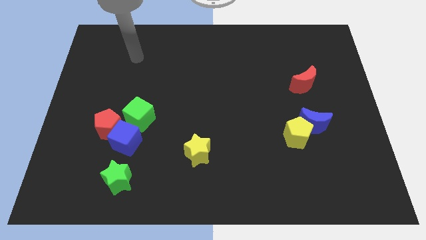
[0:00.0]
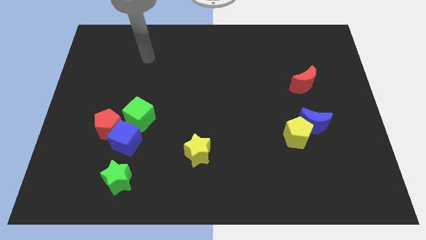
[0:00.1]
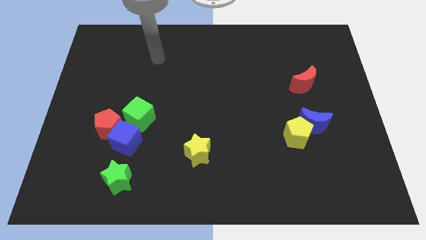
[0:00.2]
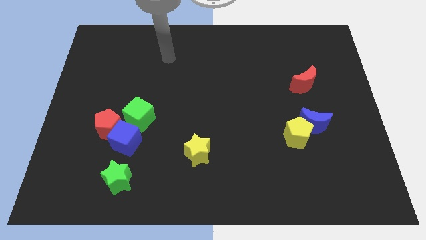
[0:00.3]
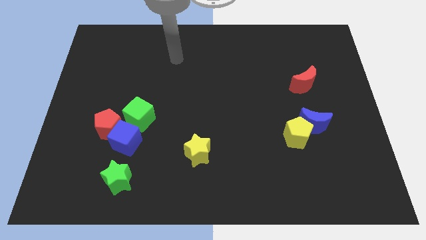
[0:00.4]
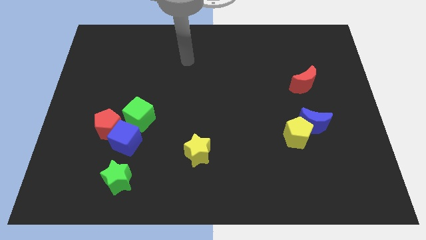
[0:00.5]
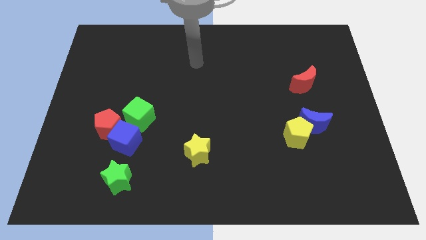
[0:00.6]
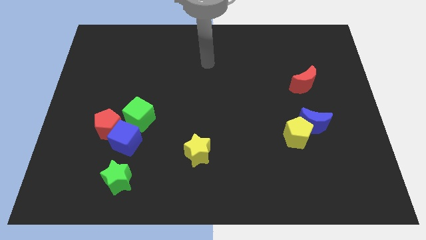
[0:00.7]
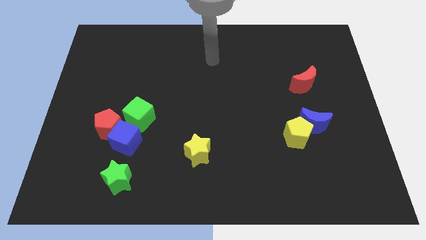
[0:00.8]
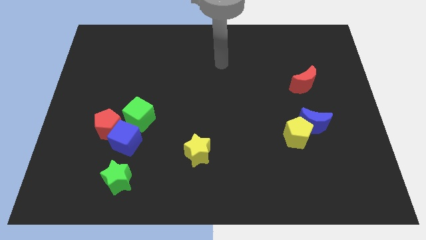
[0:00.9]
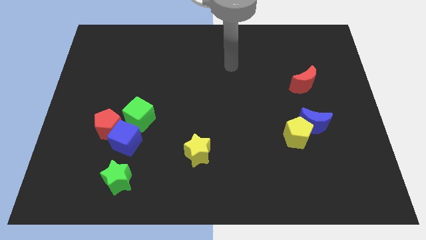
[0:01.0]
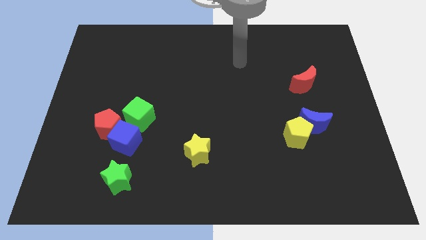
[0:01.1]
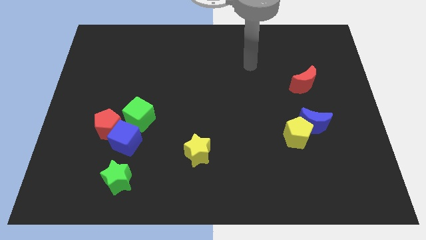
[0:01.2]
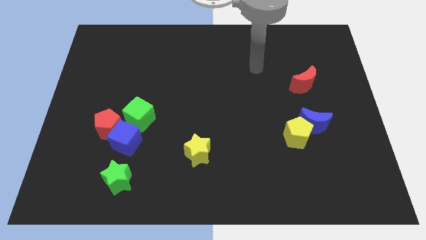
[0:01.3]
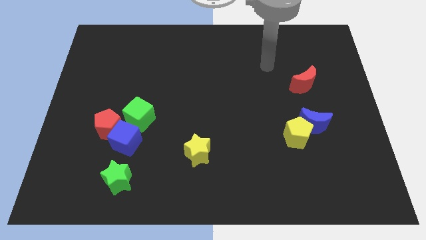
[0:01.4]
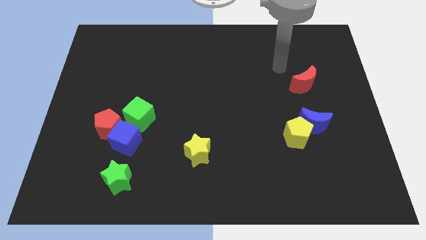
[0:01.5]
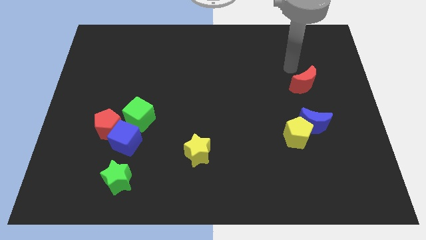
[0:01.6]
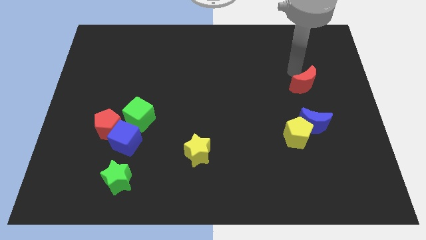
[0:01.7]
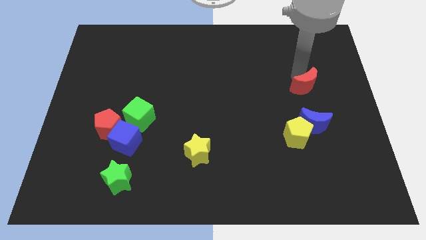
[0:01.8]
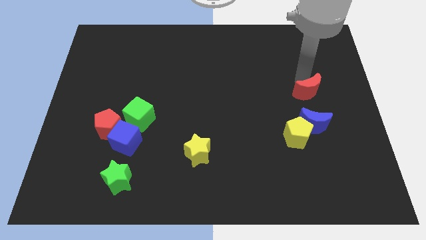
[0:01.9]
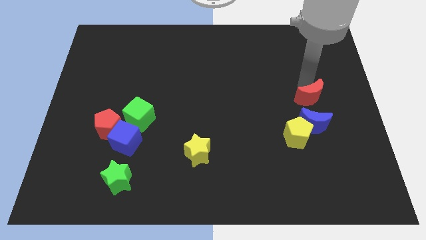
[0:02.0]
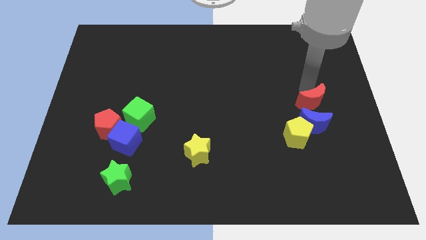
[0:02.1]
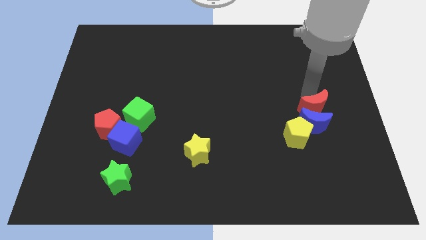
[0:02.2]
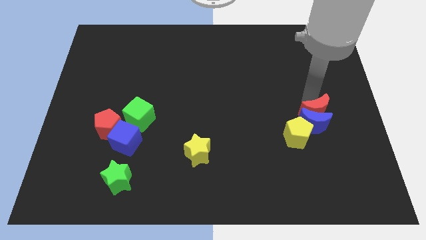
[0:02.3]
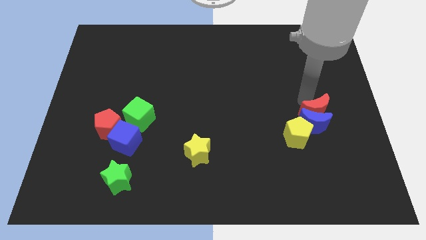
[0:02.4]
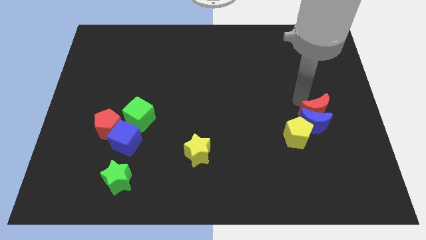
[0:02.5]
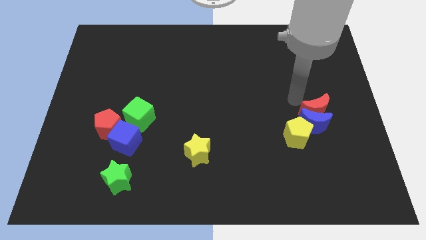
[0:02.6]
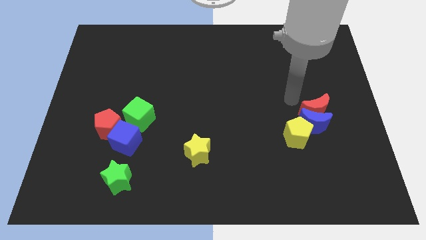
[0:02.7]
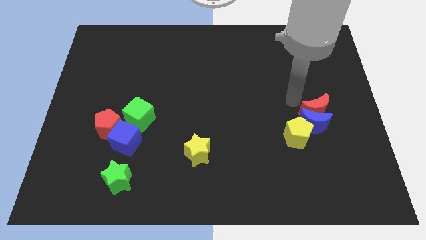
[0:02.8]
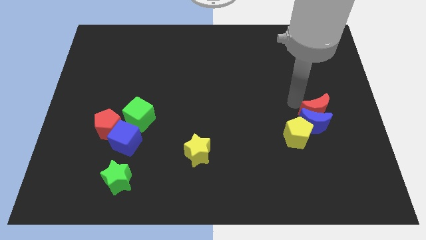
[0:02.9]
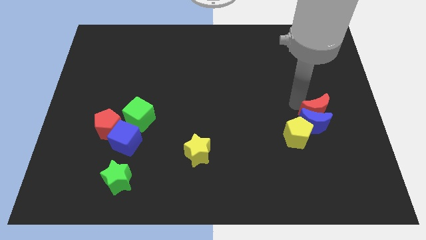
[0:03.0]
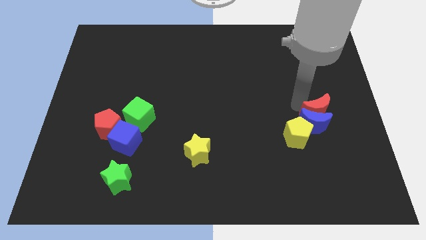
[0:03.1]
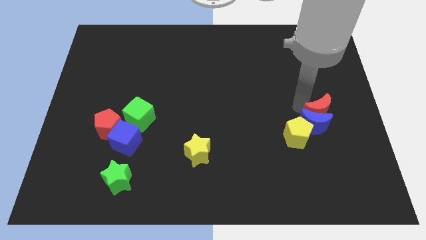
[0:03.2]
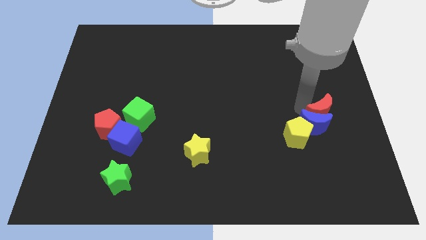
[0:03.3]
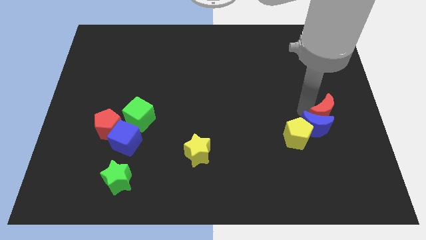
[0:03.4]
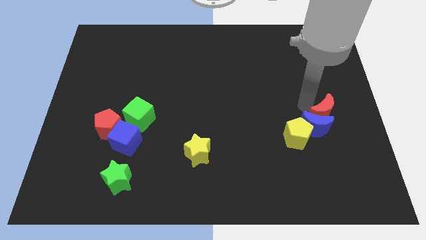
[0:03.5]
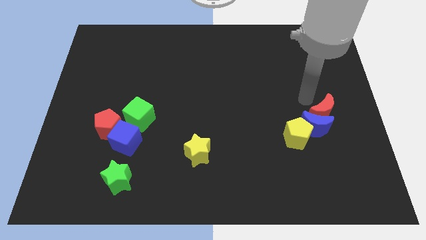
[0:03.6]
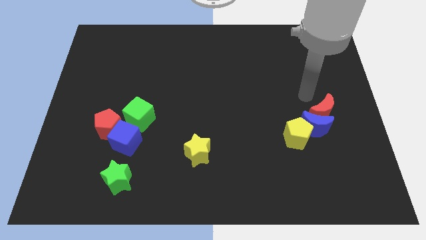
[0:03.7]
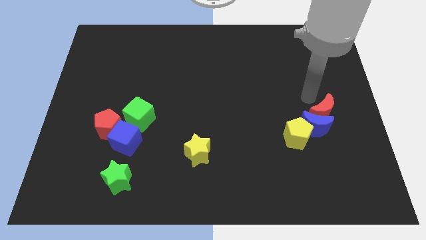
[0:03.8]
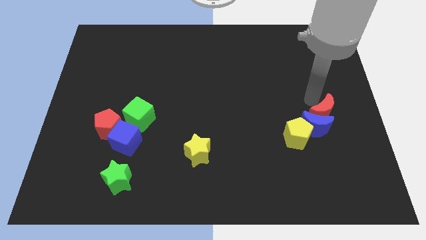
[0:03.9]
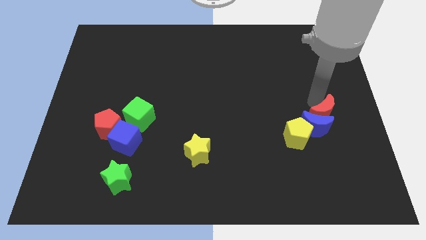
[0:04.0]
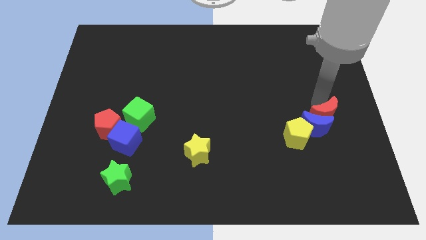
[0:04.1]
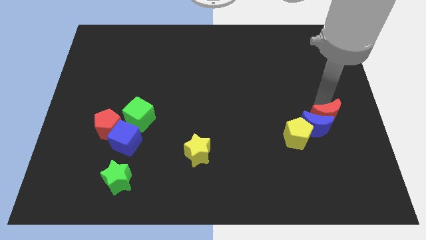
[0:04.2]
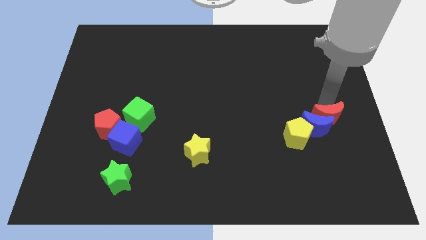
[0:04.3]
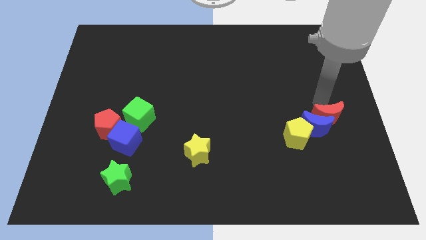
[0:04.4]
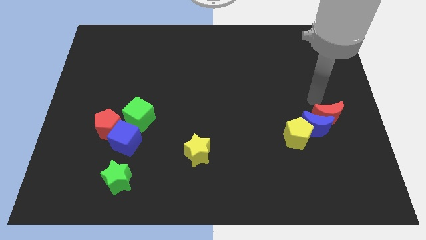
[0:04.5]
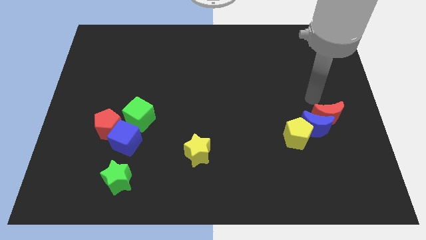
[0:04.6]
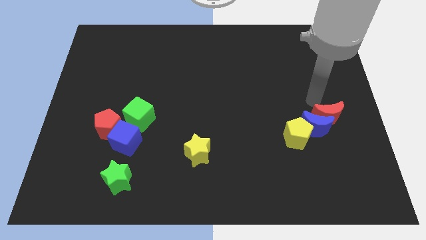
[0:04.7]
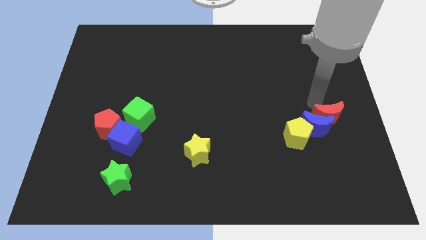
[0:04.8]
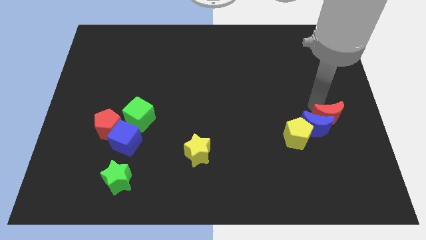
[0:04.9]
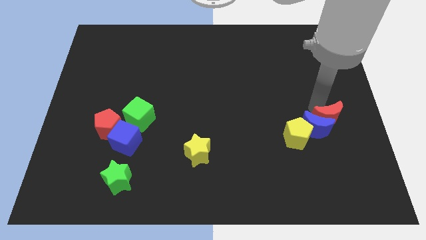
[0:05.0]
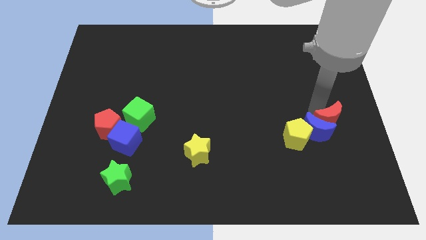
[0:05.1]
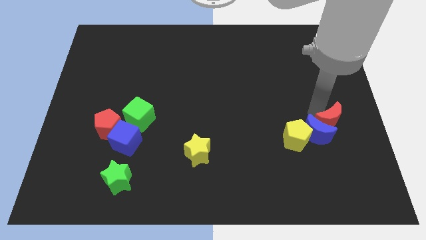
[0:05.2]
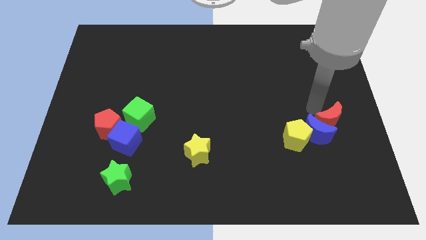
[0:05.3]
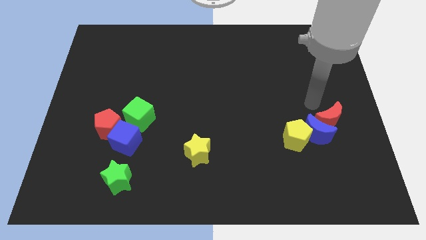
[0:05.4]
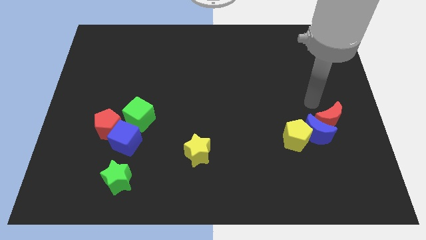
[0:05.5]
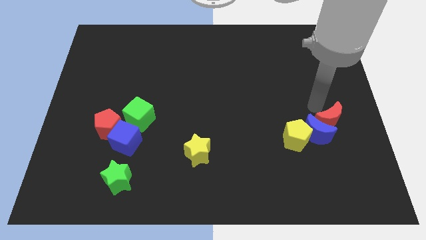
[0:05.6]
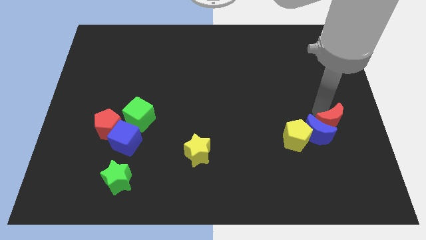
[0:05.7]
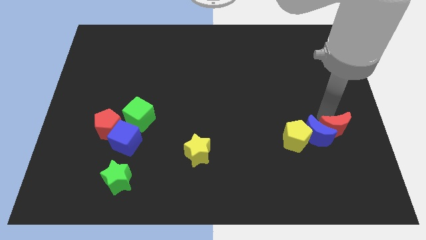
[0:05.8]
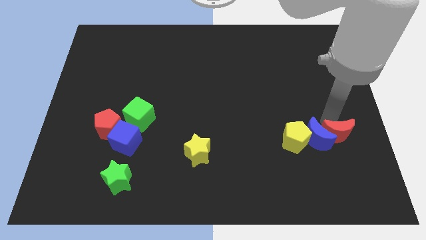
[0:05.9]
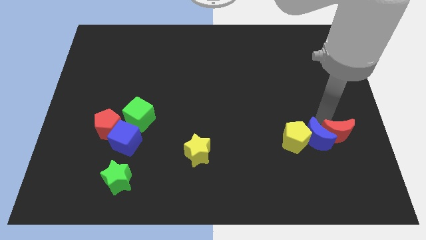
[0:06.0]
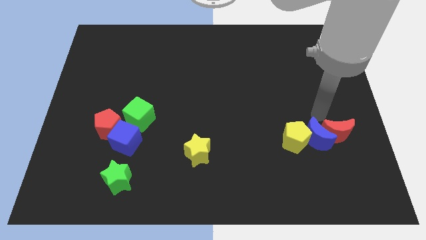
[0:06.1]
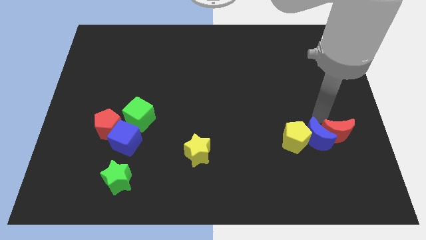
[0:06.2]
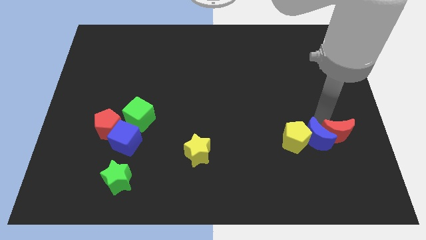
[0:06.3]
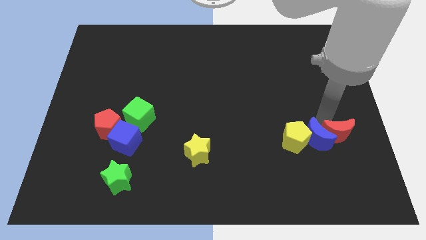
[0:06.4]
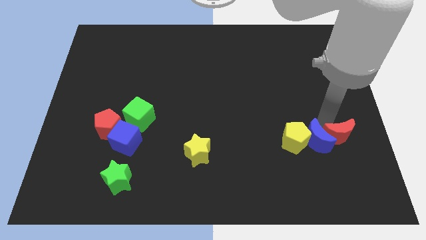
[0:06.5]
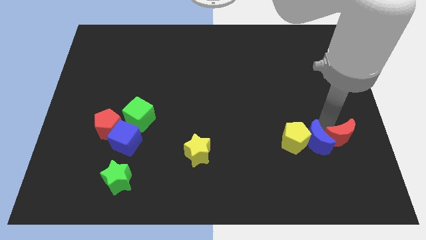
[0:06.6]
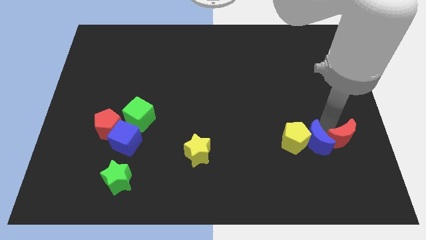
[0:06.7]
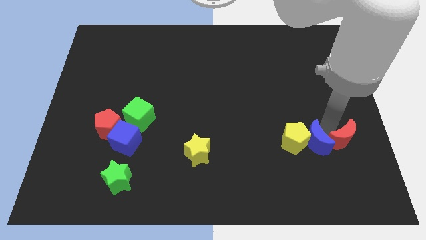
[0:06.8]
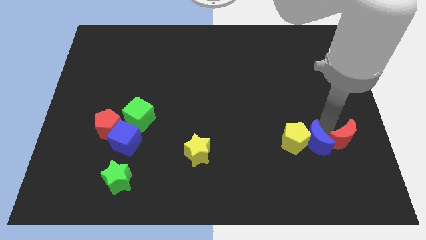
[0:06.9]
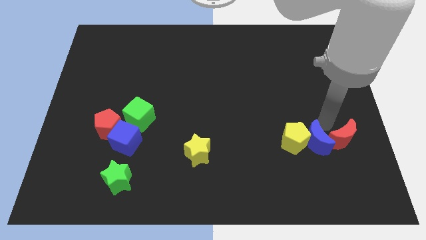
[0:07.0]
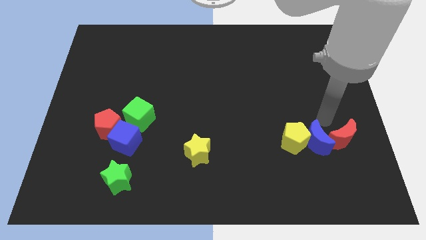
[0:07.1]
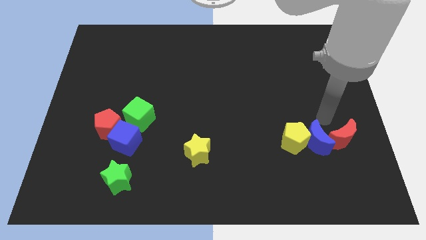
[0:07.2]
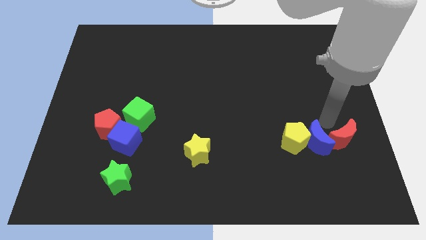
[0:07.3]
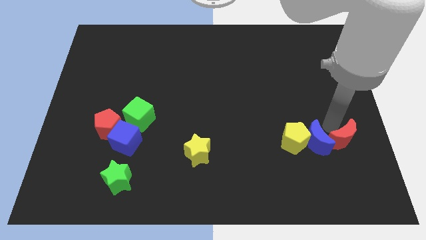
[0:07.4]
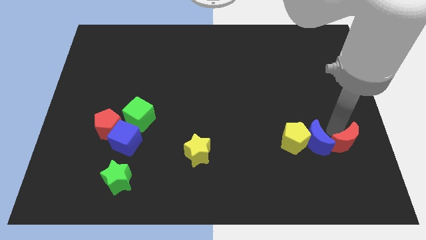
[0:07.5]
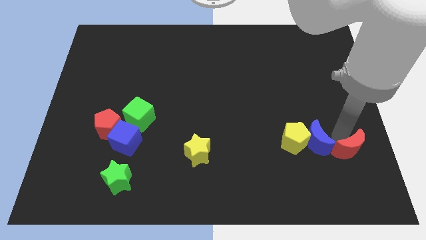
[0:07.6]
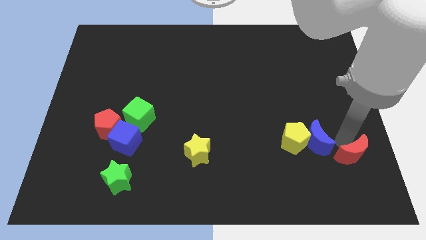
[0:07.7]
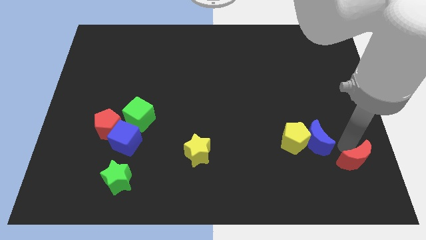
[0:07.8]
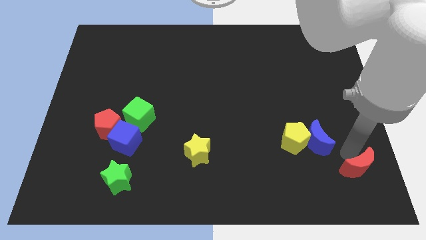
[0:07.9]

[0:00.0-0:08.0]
put the red moon to the bottom right
